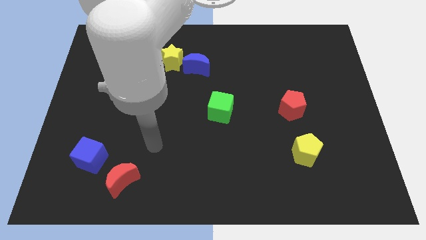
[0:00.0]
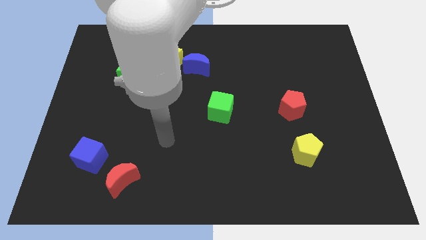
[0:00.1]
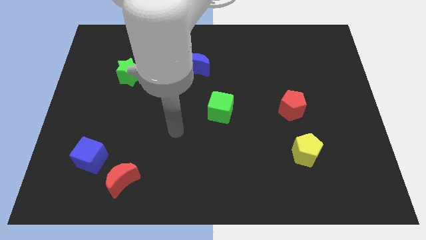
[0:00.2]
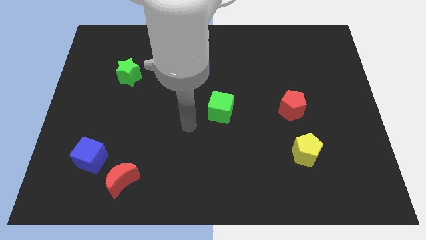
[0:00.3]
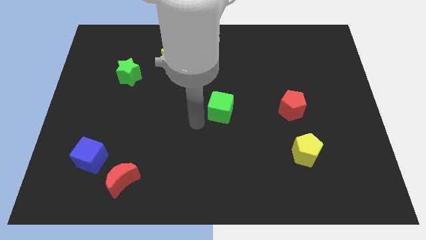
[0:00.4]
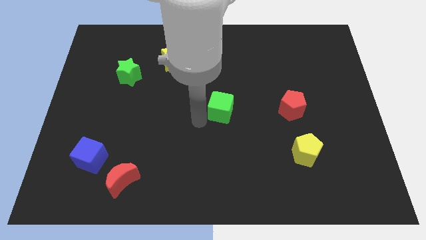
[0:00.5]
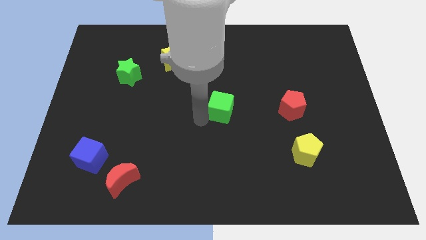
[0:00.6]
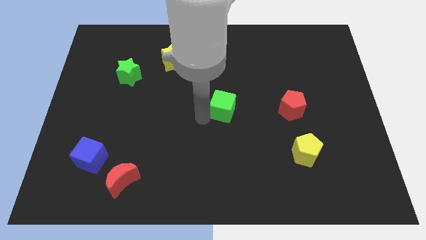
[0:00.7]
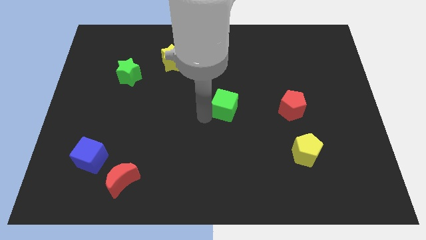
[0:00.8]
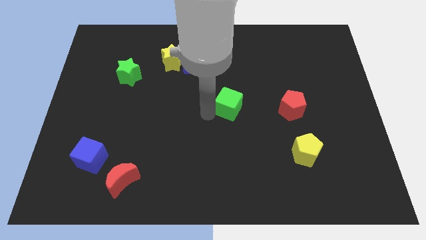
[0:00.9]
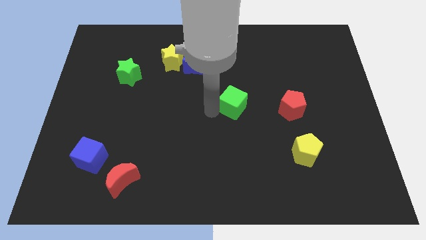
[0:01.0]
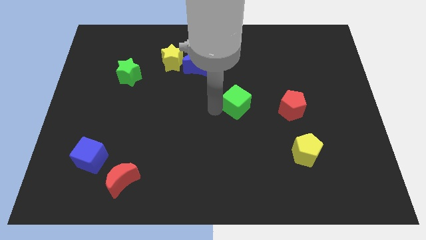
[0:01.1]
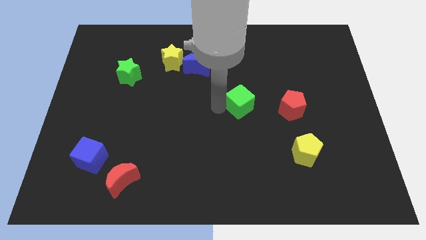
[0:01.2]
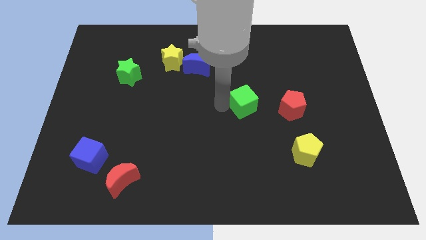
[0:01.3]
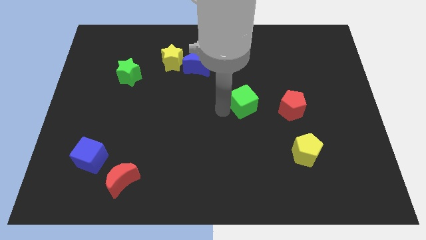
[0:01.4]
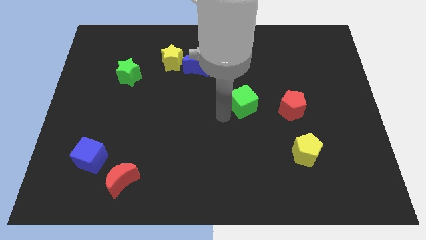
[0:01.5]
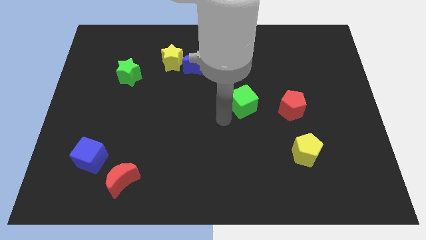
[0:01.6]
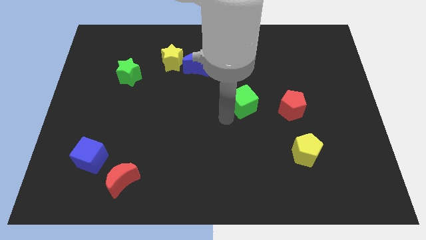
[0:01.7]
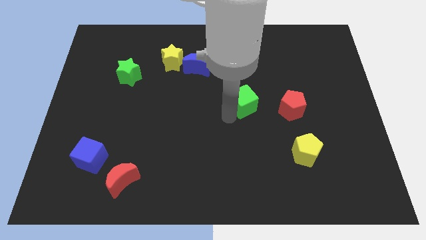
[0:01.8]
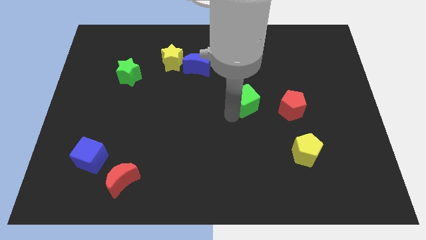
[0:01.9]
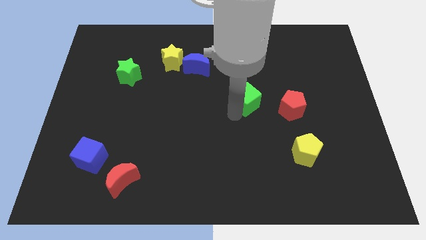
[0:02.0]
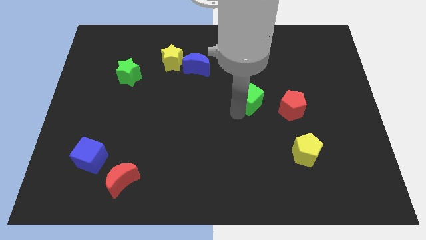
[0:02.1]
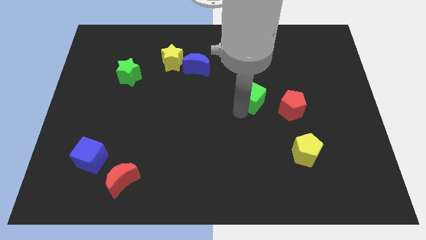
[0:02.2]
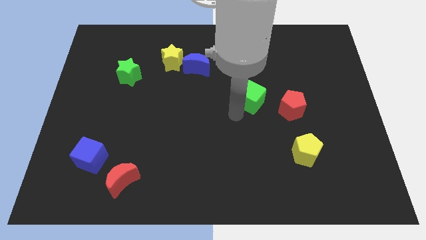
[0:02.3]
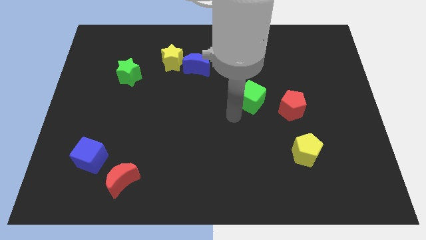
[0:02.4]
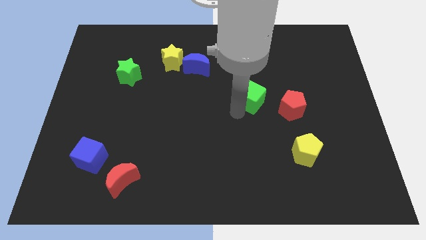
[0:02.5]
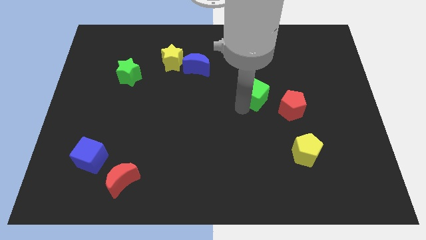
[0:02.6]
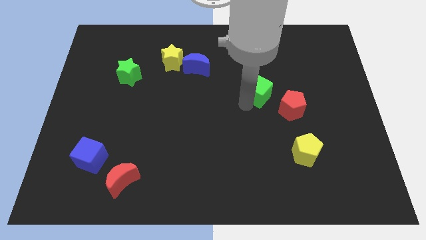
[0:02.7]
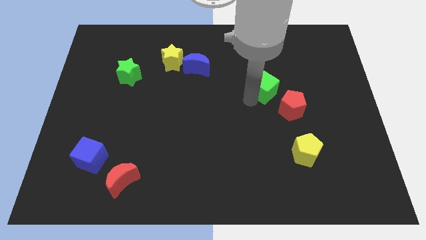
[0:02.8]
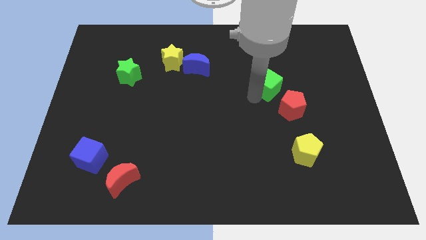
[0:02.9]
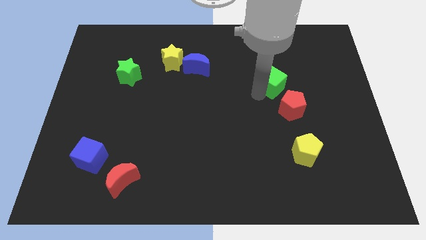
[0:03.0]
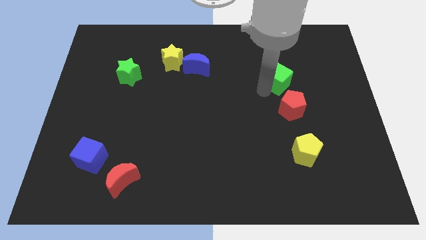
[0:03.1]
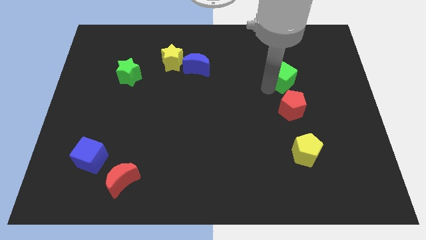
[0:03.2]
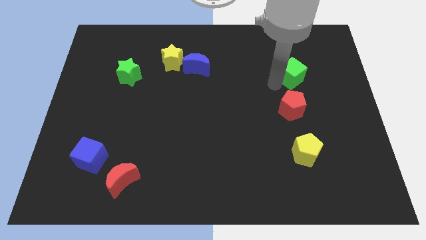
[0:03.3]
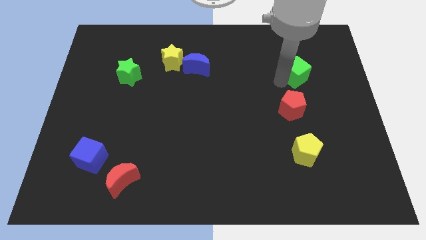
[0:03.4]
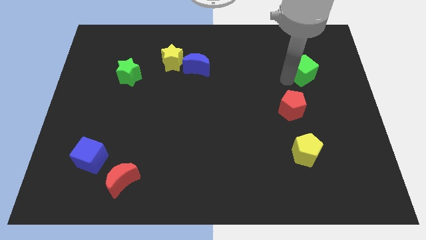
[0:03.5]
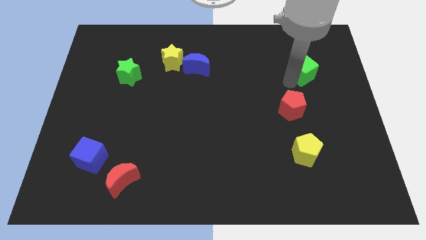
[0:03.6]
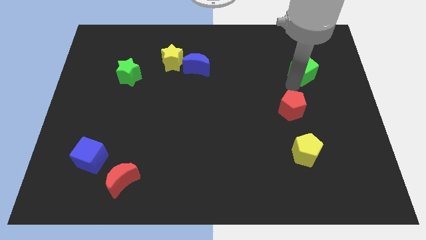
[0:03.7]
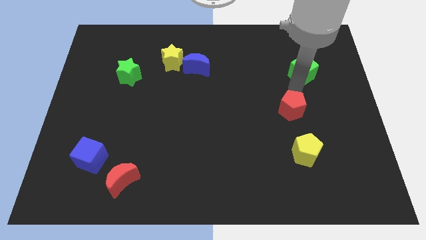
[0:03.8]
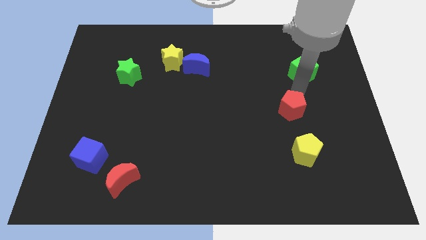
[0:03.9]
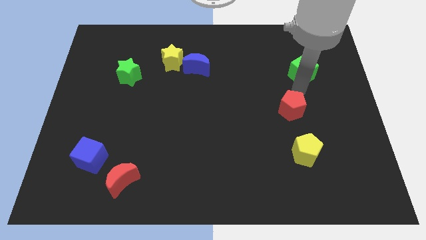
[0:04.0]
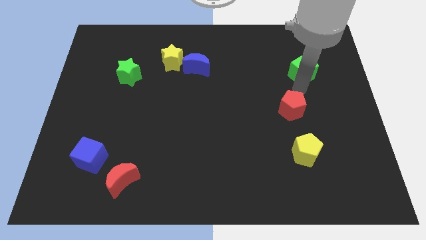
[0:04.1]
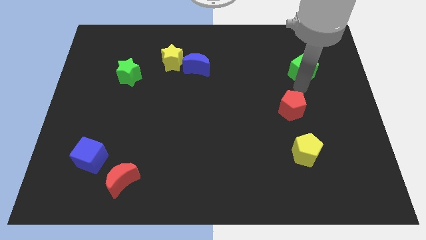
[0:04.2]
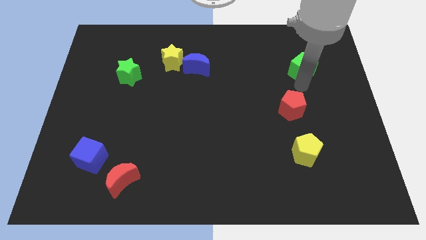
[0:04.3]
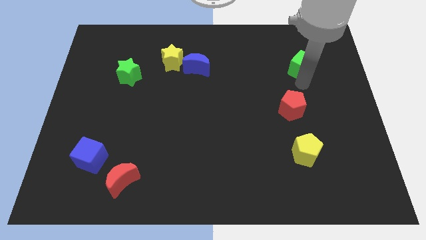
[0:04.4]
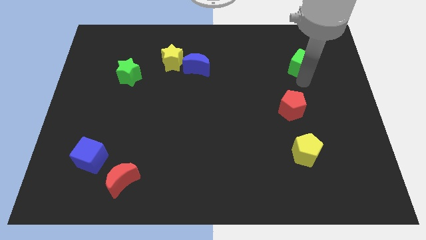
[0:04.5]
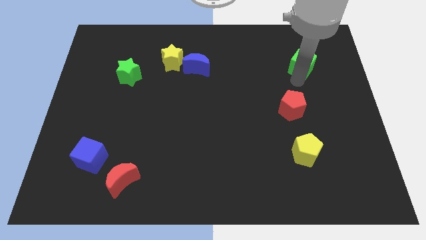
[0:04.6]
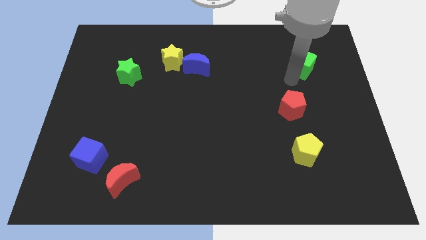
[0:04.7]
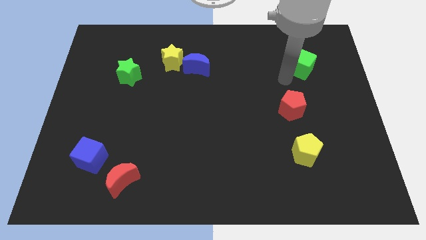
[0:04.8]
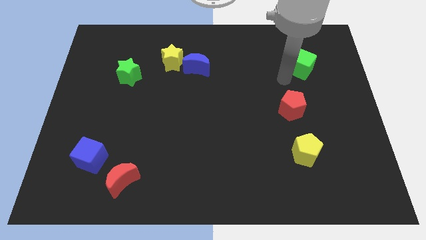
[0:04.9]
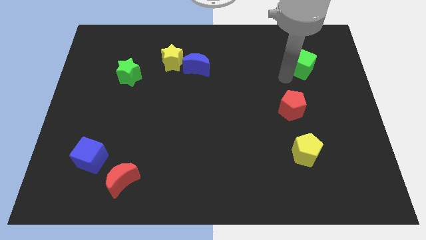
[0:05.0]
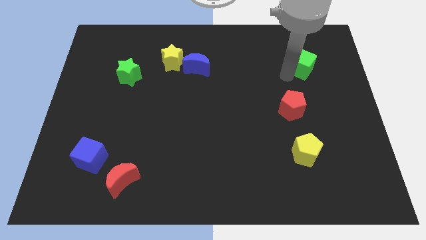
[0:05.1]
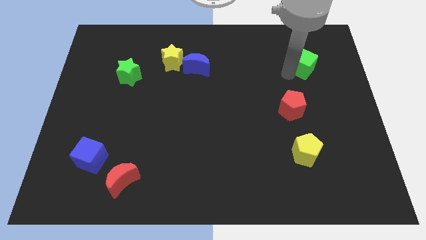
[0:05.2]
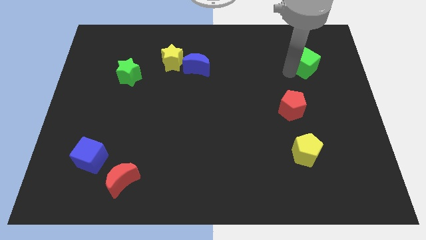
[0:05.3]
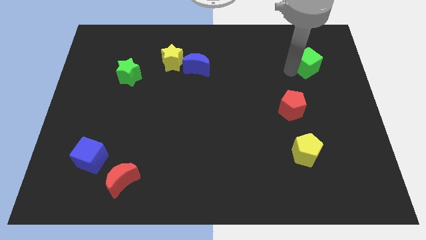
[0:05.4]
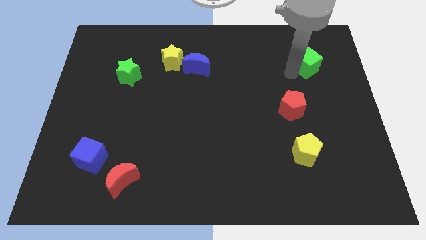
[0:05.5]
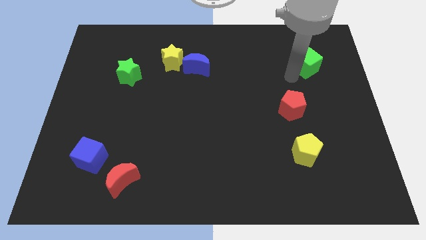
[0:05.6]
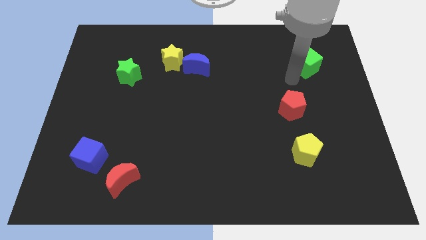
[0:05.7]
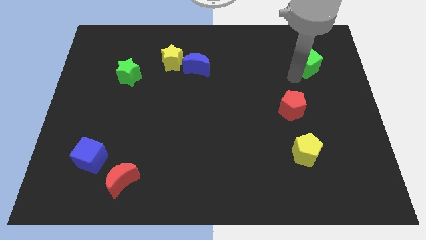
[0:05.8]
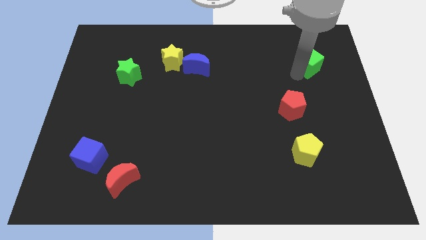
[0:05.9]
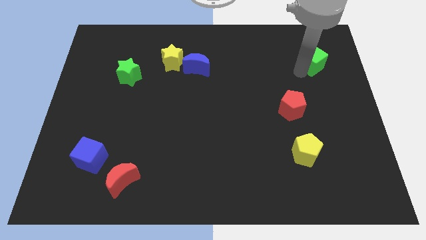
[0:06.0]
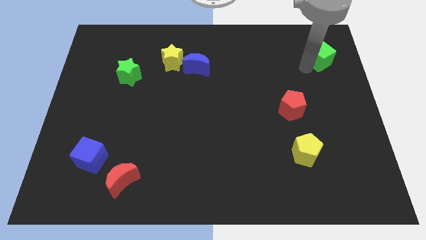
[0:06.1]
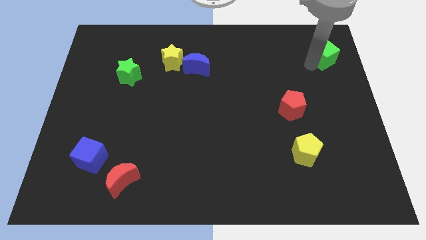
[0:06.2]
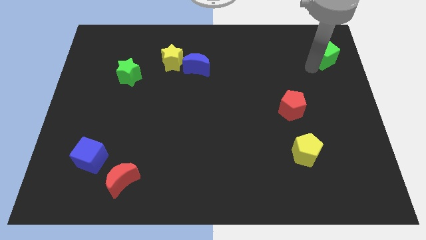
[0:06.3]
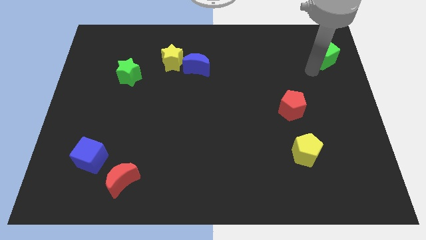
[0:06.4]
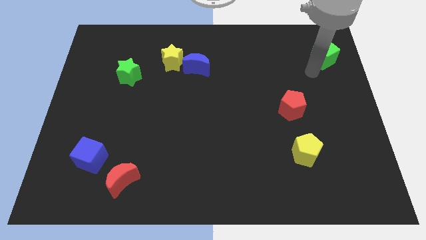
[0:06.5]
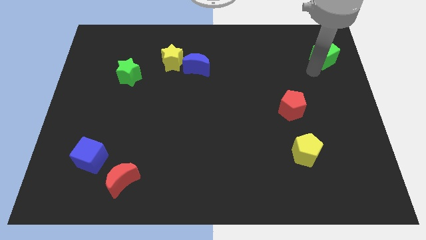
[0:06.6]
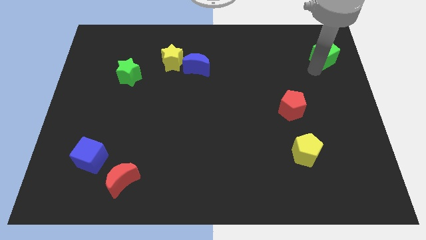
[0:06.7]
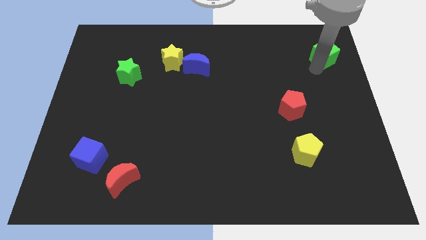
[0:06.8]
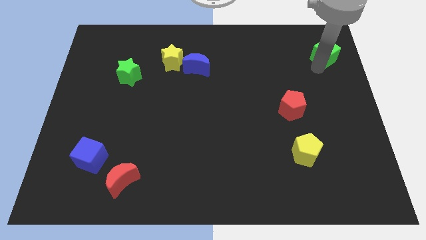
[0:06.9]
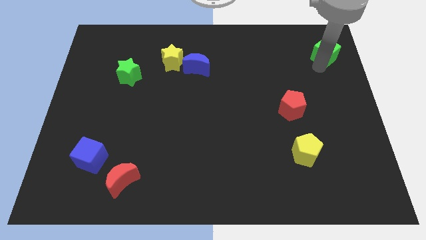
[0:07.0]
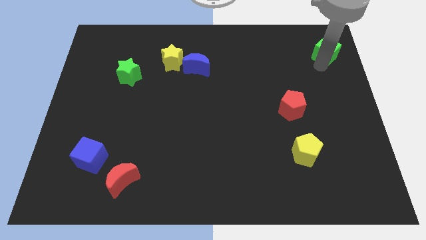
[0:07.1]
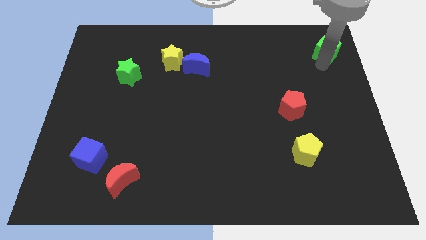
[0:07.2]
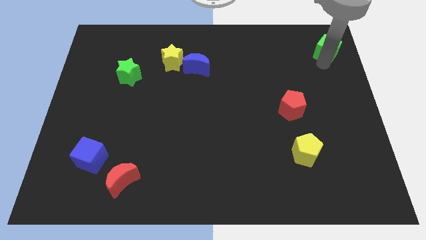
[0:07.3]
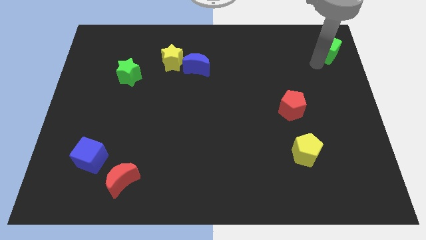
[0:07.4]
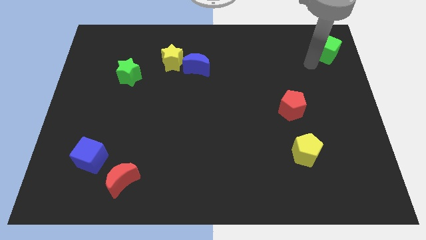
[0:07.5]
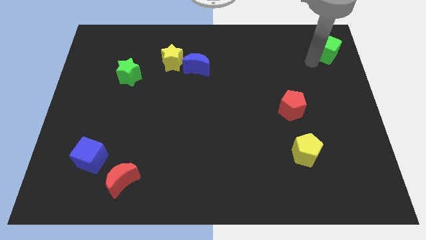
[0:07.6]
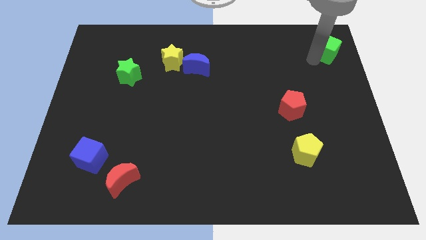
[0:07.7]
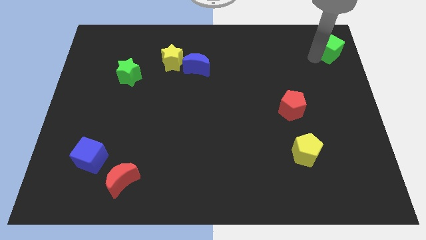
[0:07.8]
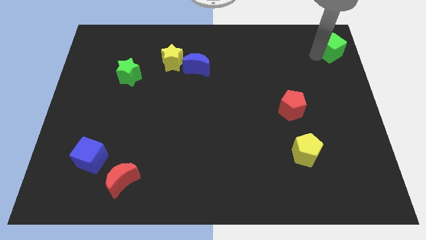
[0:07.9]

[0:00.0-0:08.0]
move the green cube to the upper right corner
